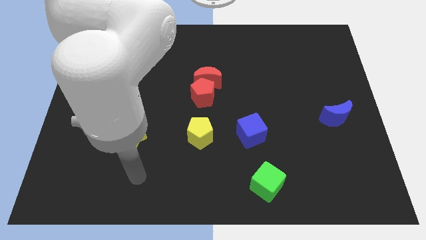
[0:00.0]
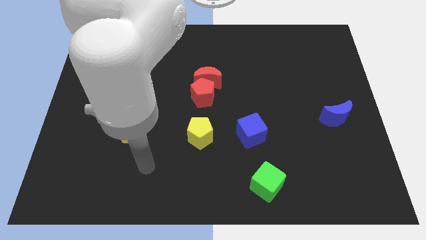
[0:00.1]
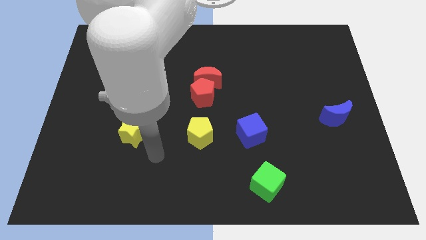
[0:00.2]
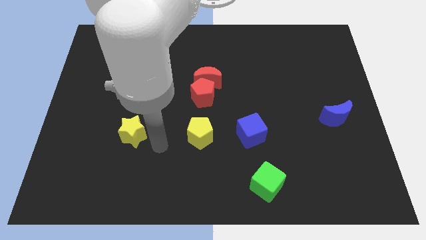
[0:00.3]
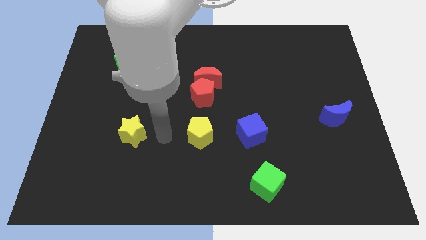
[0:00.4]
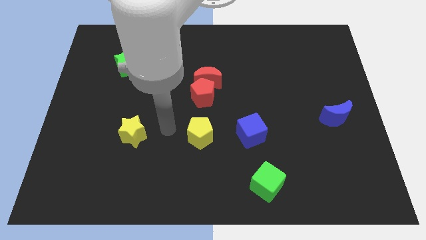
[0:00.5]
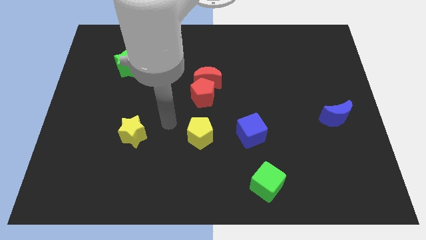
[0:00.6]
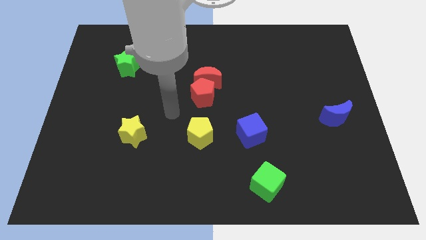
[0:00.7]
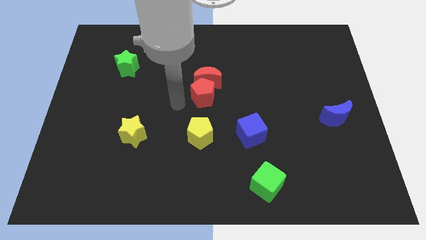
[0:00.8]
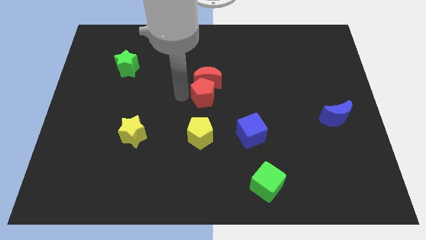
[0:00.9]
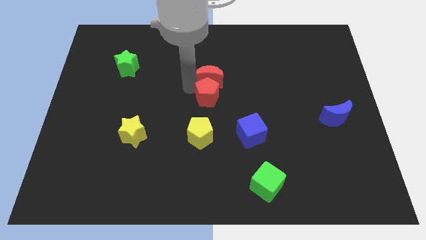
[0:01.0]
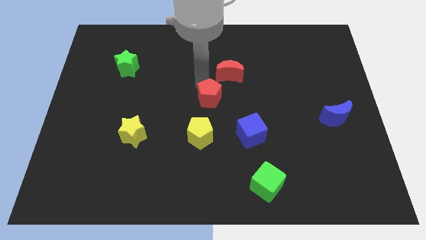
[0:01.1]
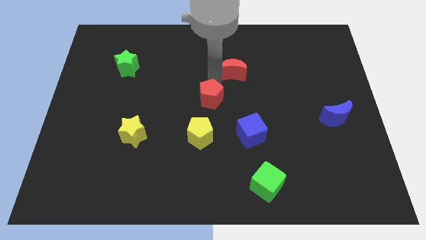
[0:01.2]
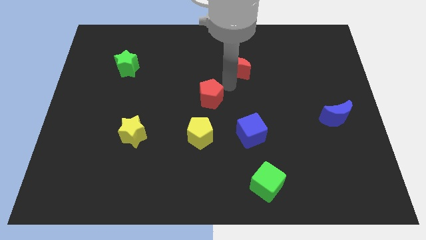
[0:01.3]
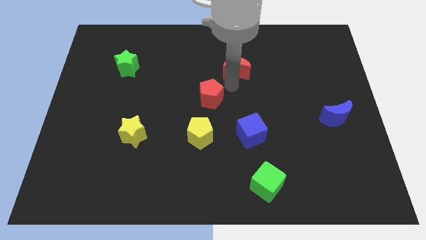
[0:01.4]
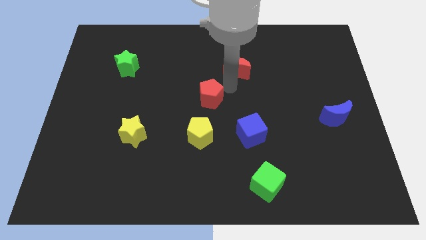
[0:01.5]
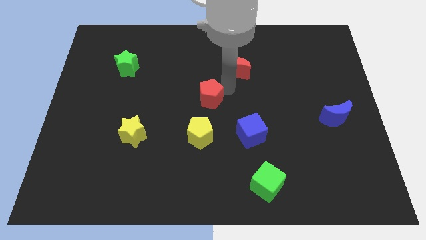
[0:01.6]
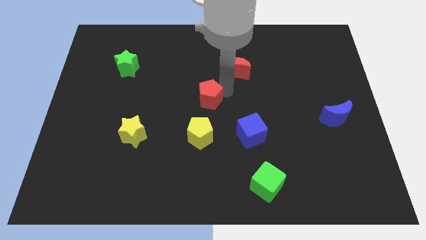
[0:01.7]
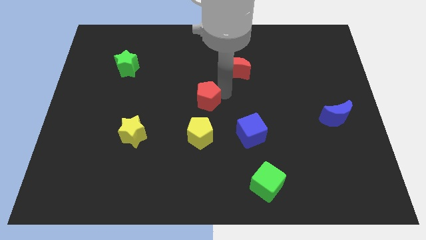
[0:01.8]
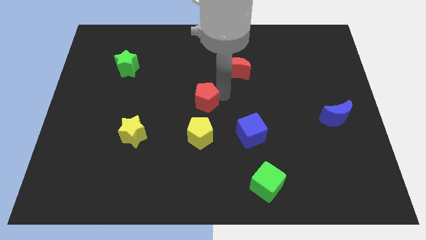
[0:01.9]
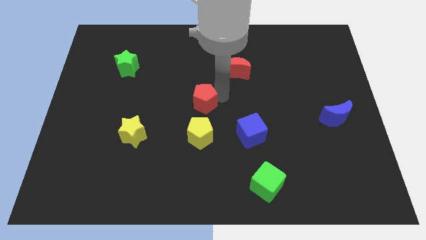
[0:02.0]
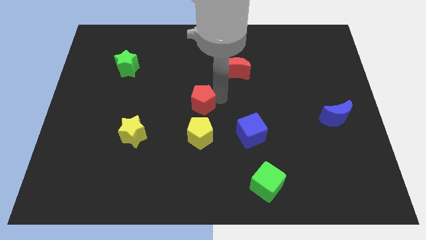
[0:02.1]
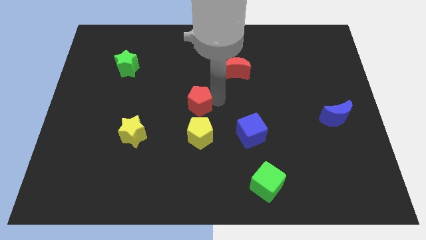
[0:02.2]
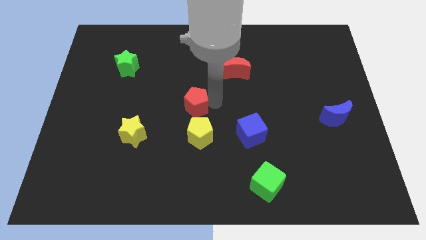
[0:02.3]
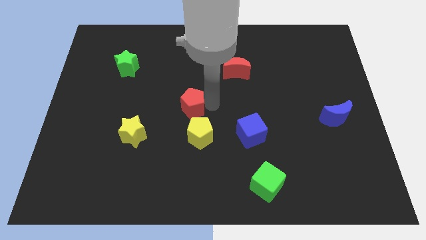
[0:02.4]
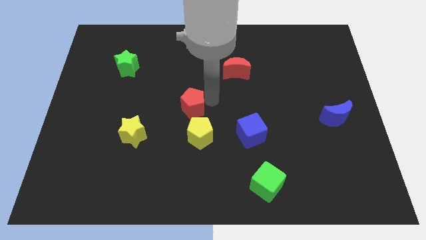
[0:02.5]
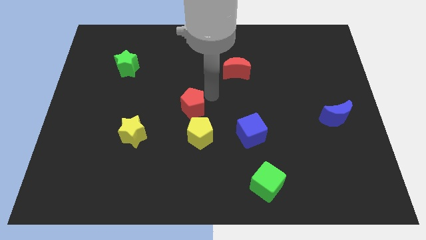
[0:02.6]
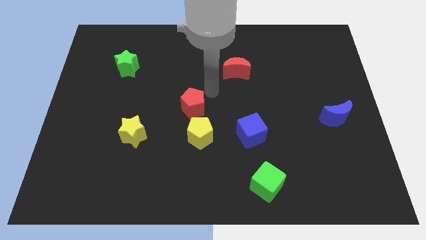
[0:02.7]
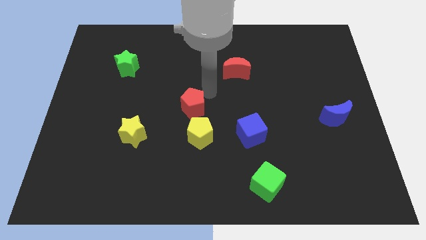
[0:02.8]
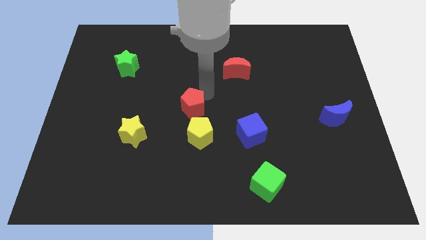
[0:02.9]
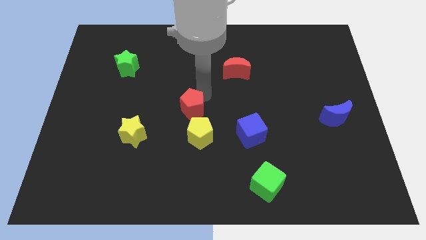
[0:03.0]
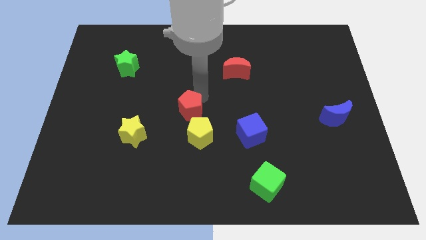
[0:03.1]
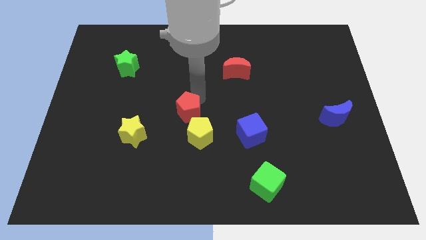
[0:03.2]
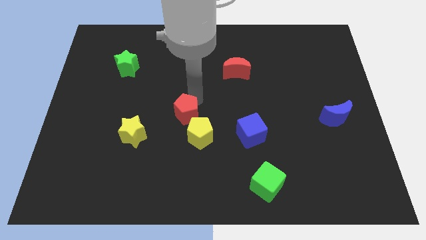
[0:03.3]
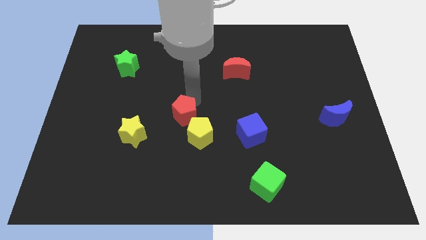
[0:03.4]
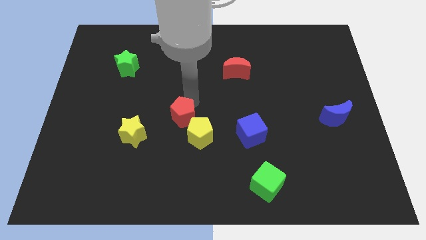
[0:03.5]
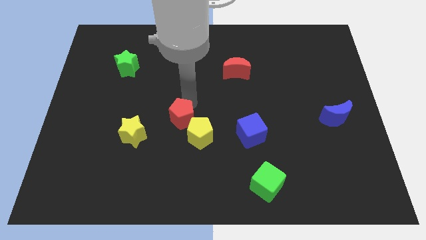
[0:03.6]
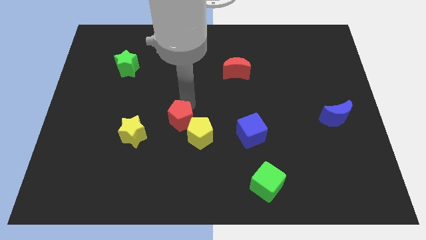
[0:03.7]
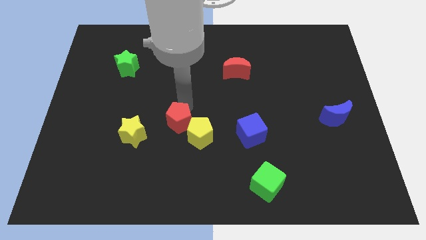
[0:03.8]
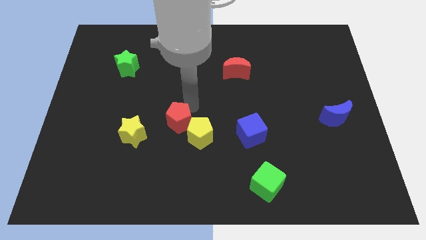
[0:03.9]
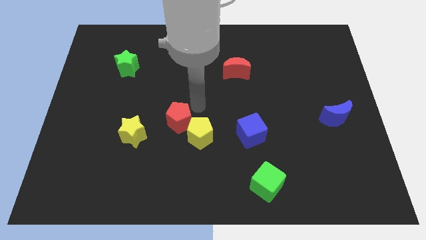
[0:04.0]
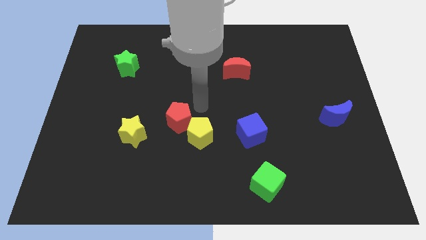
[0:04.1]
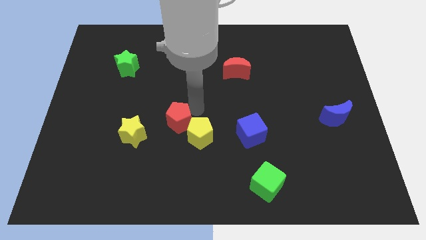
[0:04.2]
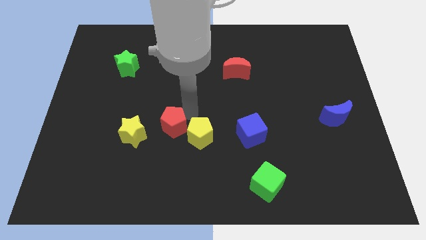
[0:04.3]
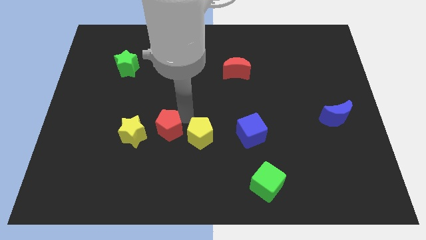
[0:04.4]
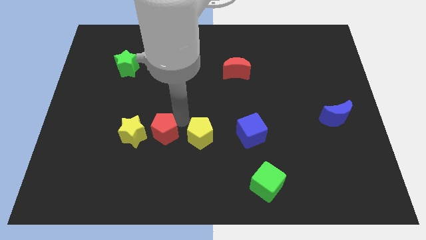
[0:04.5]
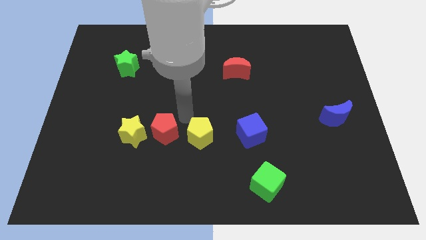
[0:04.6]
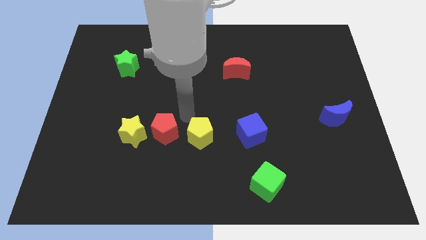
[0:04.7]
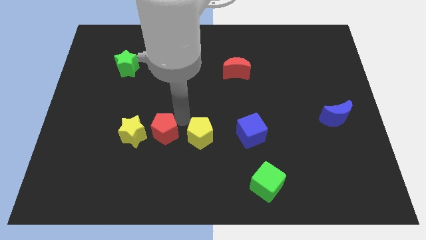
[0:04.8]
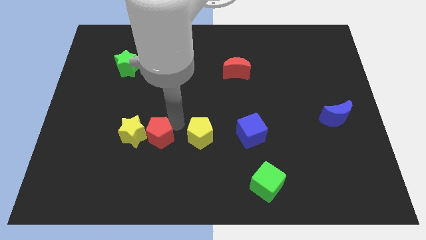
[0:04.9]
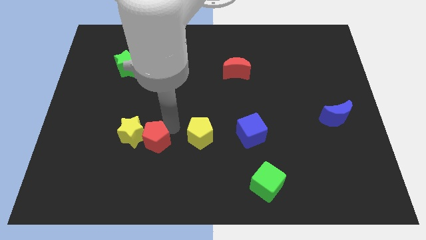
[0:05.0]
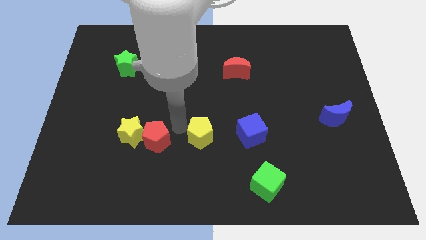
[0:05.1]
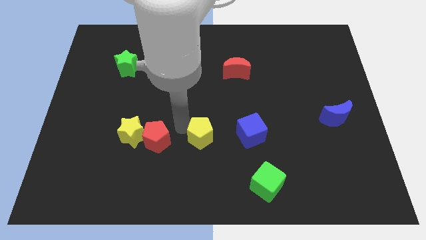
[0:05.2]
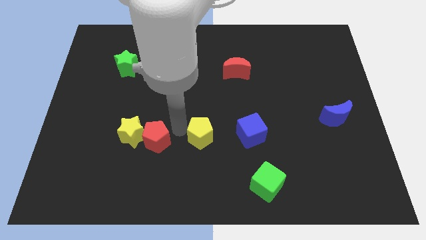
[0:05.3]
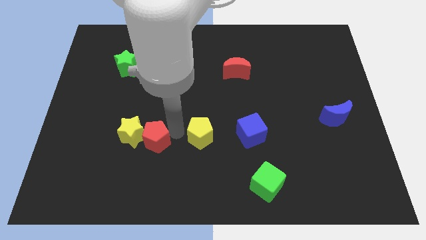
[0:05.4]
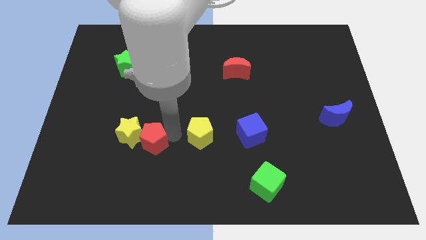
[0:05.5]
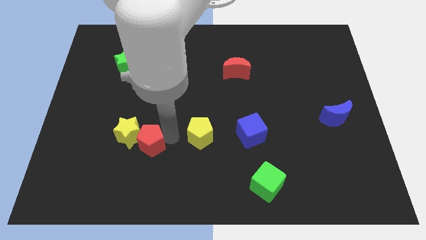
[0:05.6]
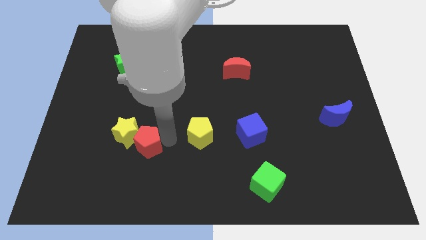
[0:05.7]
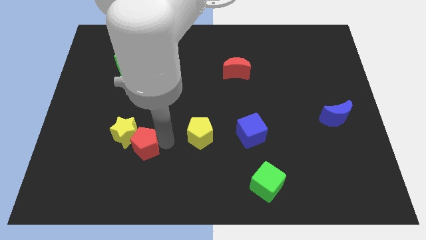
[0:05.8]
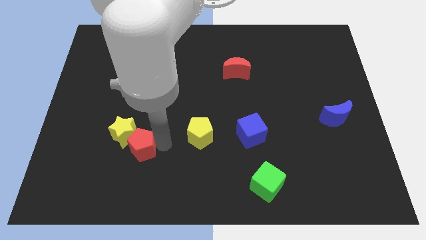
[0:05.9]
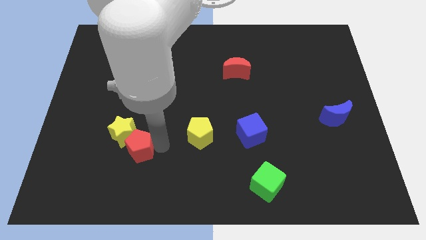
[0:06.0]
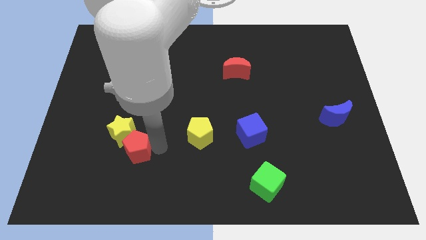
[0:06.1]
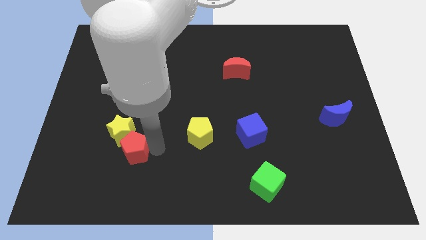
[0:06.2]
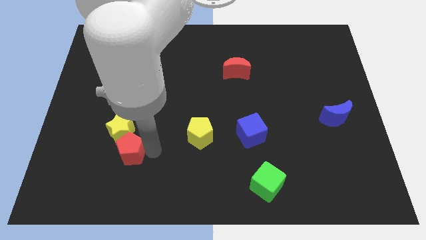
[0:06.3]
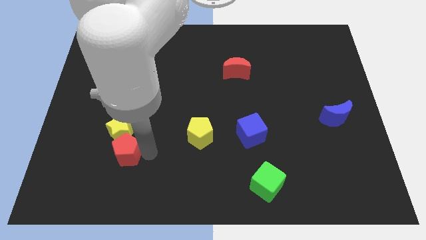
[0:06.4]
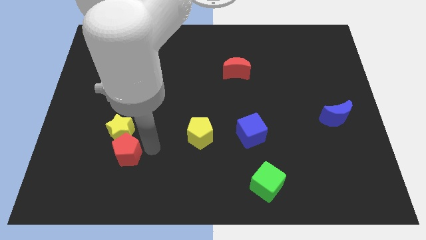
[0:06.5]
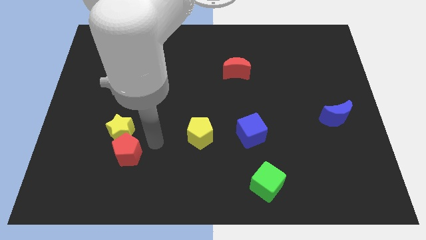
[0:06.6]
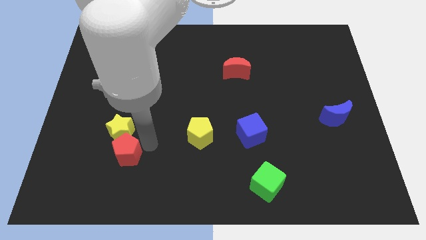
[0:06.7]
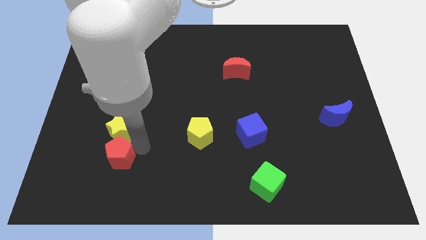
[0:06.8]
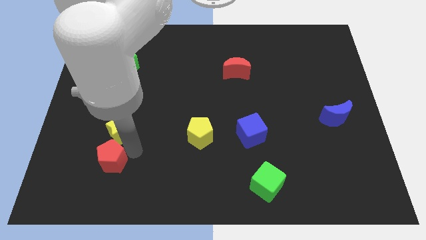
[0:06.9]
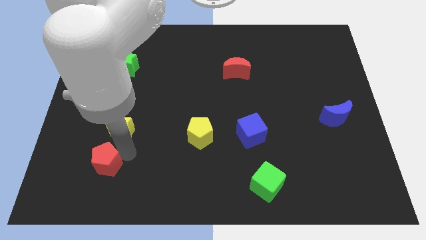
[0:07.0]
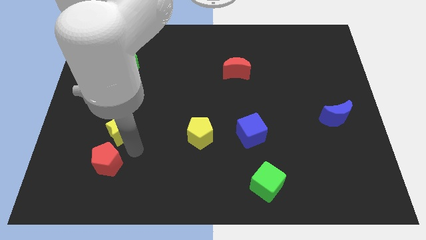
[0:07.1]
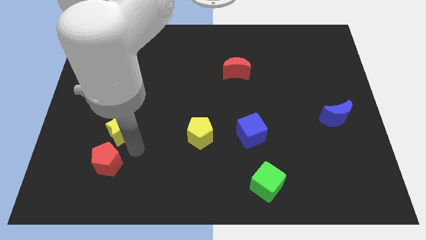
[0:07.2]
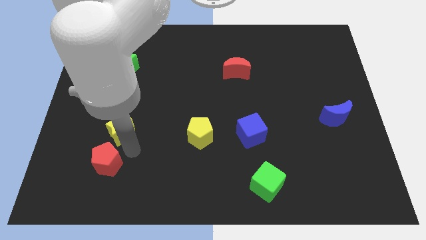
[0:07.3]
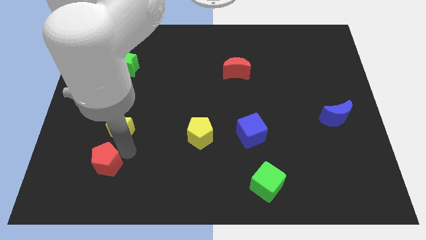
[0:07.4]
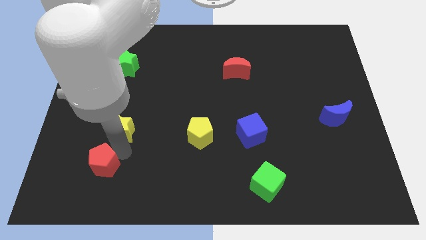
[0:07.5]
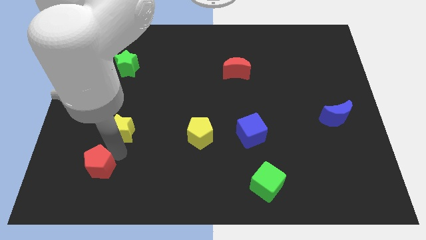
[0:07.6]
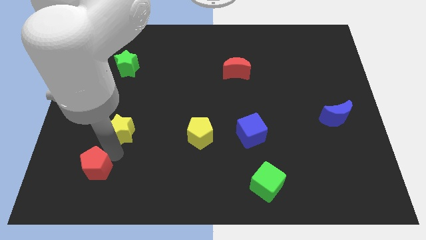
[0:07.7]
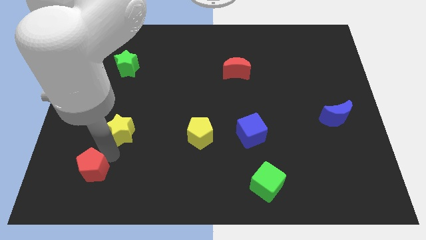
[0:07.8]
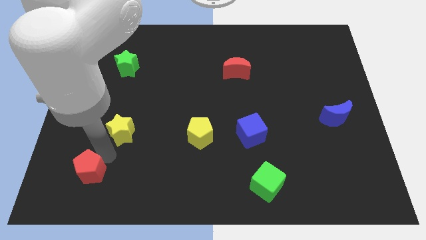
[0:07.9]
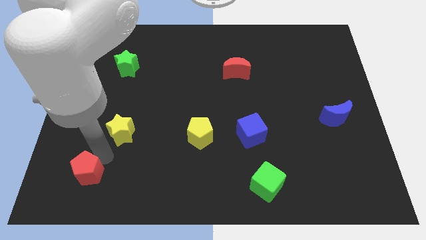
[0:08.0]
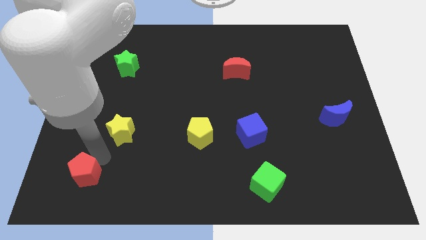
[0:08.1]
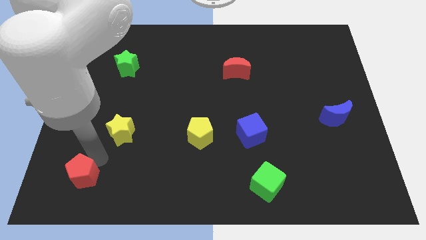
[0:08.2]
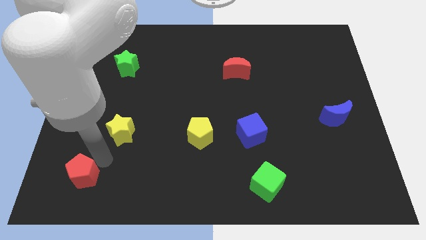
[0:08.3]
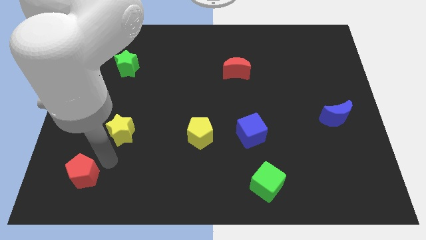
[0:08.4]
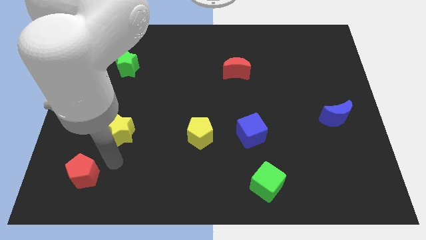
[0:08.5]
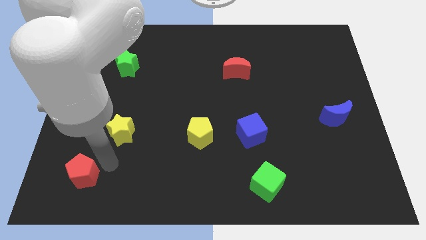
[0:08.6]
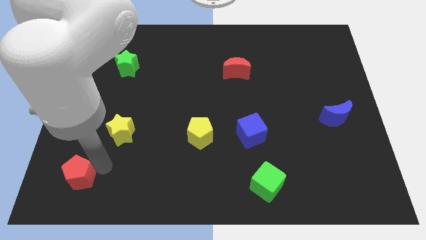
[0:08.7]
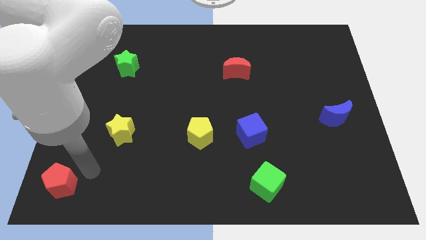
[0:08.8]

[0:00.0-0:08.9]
move the red pentagon to the bottom left corner
